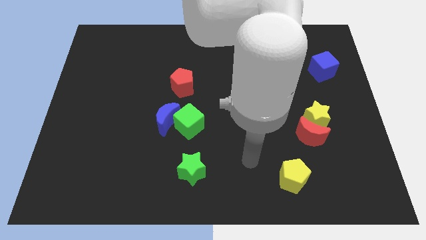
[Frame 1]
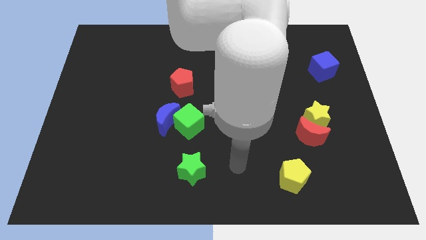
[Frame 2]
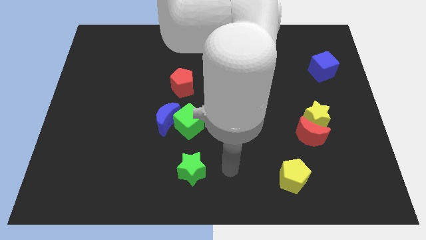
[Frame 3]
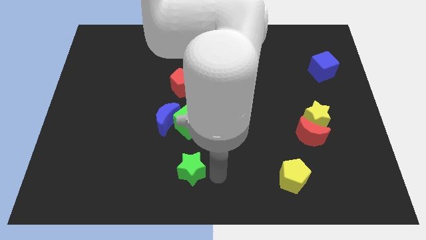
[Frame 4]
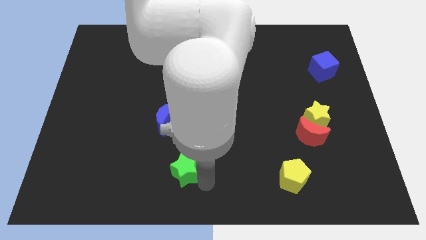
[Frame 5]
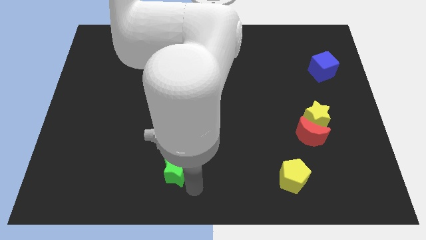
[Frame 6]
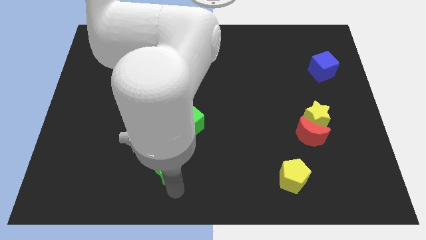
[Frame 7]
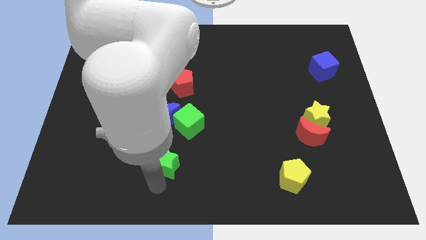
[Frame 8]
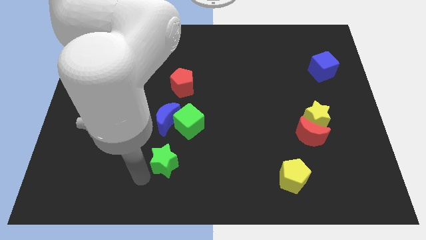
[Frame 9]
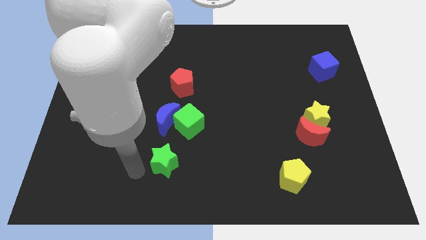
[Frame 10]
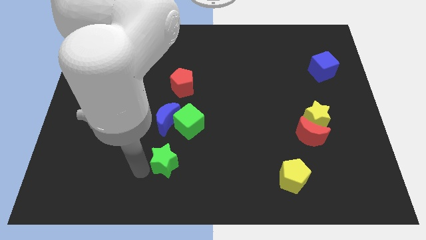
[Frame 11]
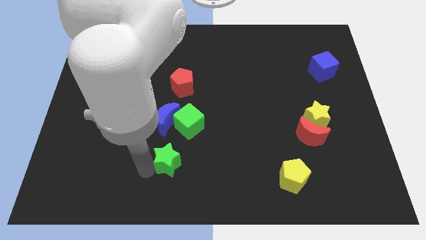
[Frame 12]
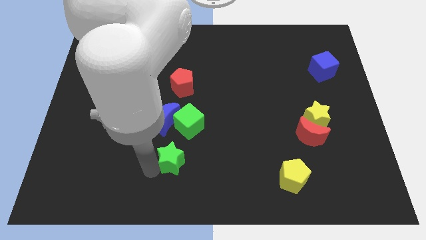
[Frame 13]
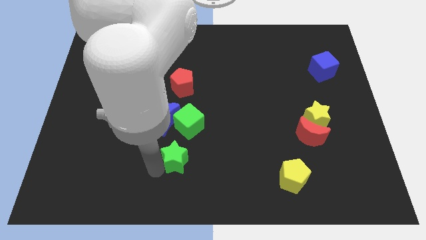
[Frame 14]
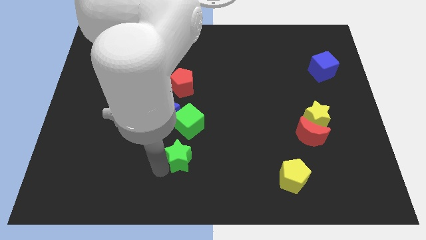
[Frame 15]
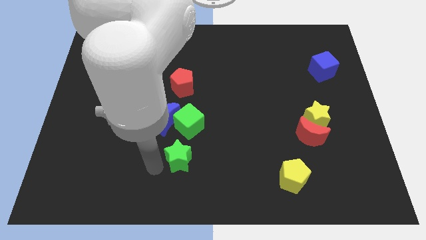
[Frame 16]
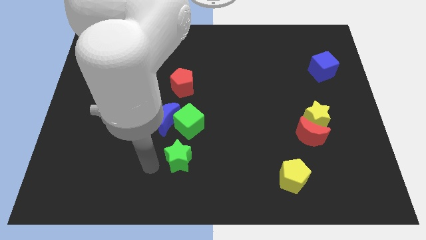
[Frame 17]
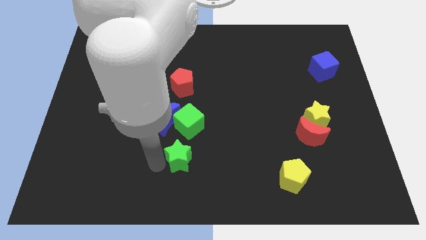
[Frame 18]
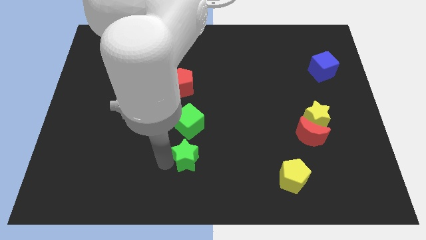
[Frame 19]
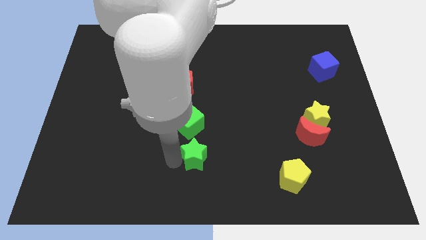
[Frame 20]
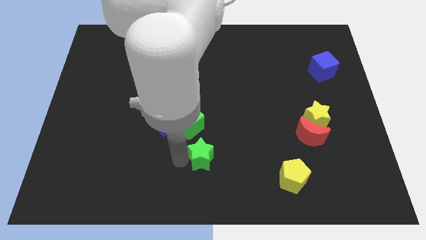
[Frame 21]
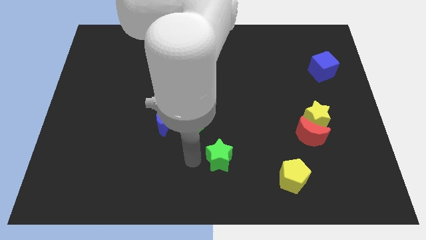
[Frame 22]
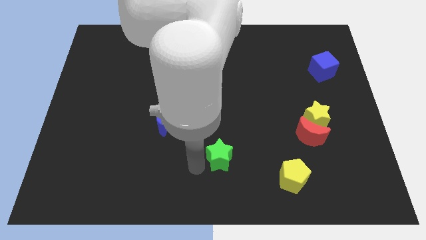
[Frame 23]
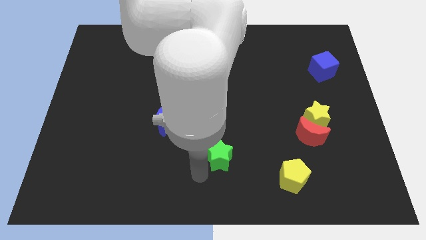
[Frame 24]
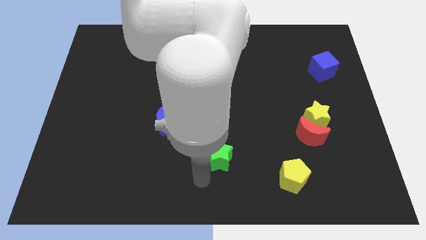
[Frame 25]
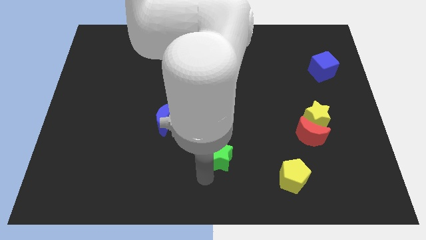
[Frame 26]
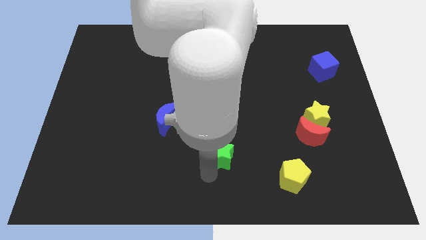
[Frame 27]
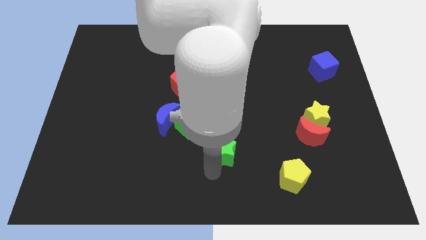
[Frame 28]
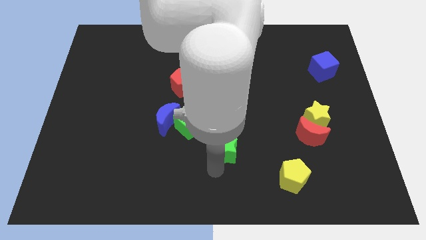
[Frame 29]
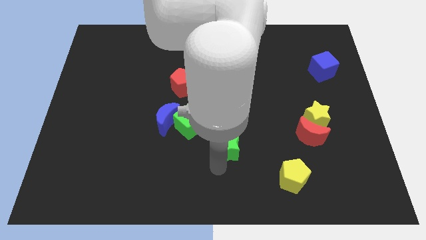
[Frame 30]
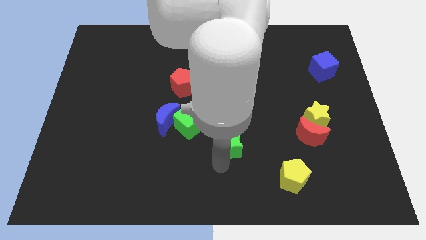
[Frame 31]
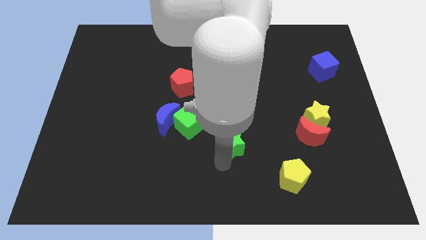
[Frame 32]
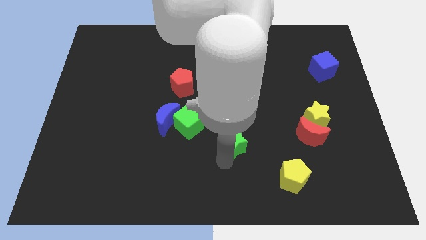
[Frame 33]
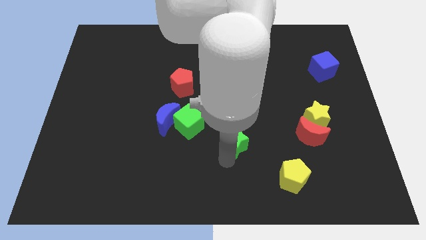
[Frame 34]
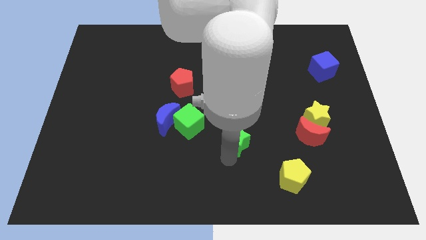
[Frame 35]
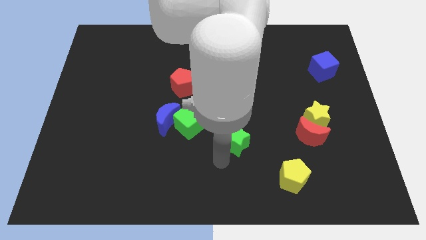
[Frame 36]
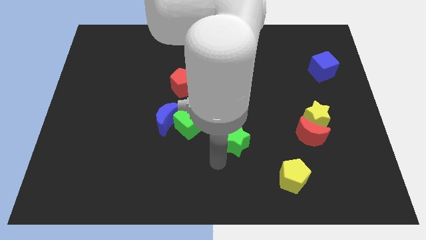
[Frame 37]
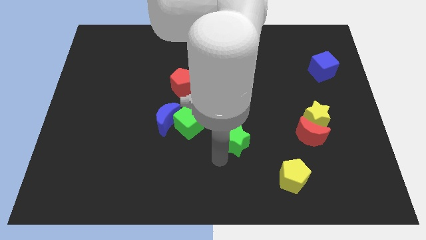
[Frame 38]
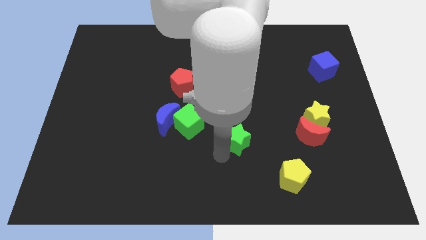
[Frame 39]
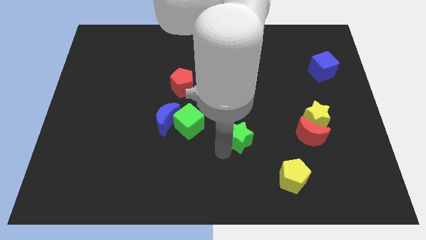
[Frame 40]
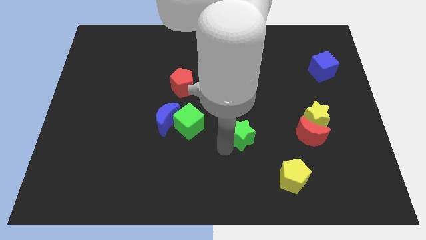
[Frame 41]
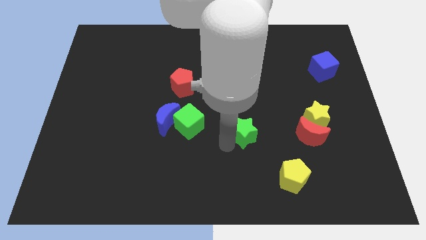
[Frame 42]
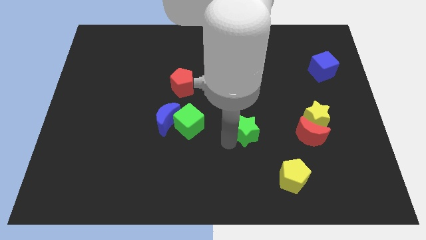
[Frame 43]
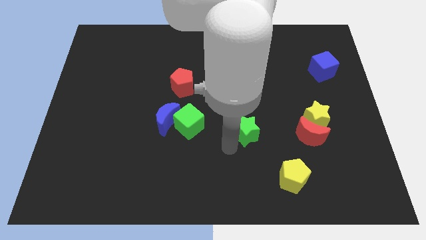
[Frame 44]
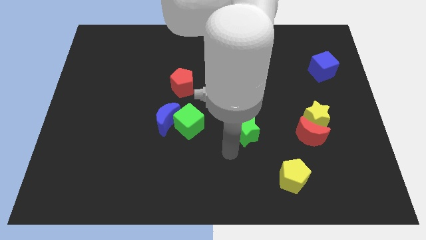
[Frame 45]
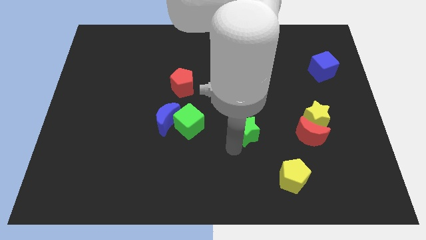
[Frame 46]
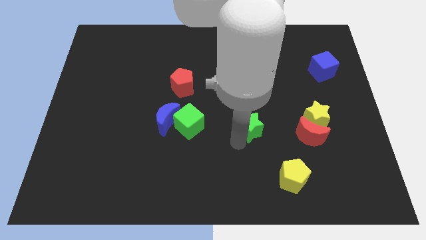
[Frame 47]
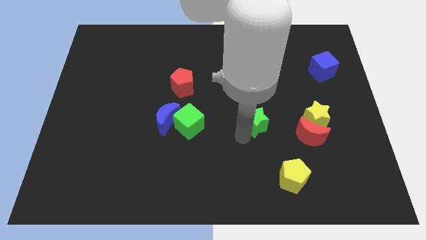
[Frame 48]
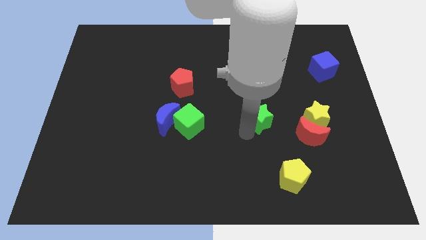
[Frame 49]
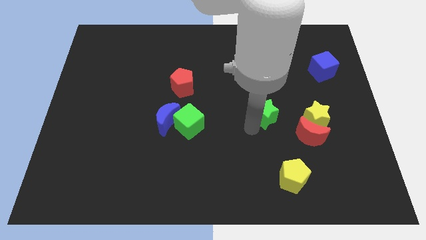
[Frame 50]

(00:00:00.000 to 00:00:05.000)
push the green star diagonally upwards and right

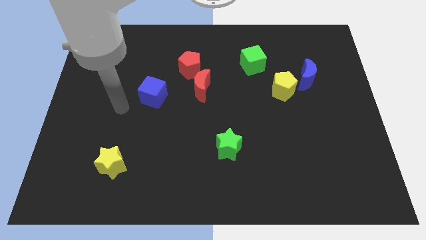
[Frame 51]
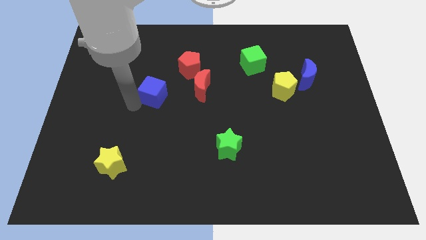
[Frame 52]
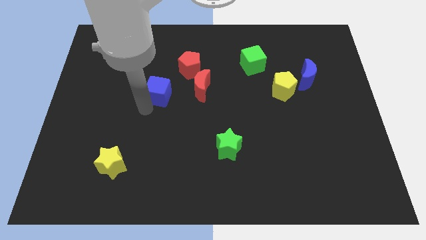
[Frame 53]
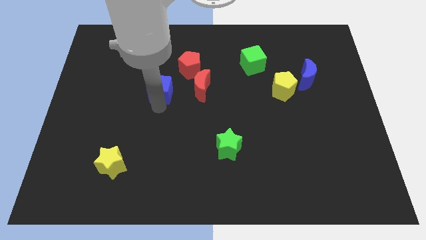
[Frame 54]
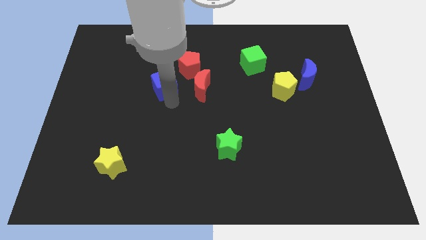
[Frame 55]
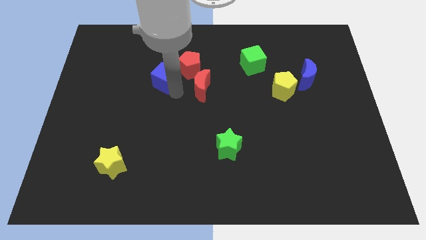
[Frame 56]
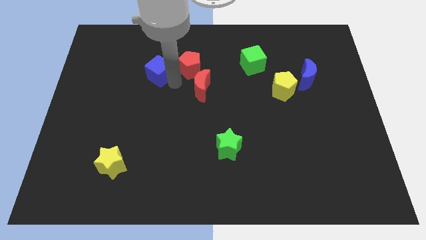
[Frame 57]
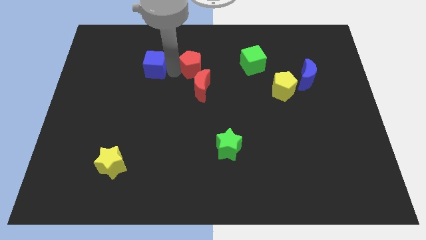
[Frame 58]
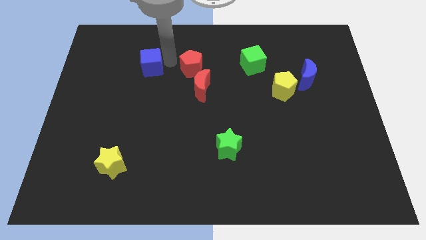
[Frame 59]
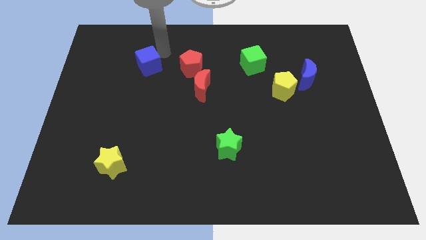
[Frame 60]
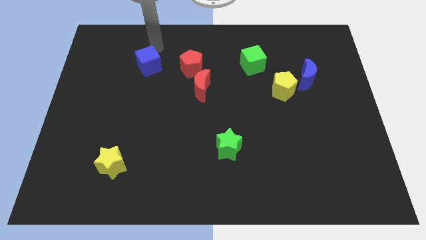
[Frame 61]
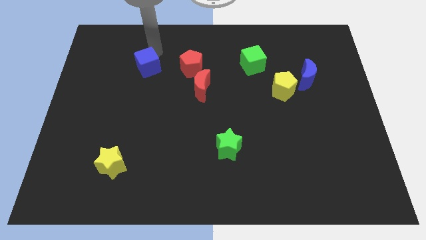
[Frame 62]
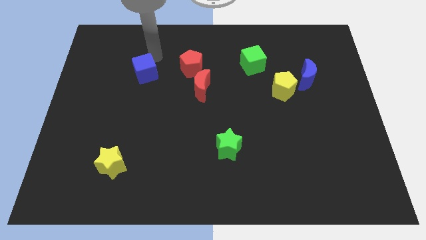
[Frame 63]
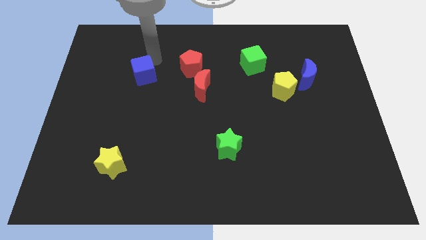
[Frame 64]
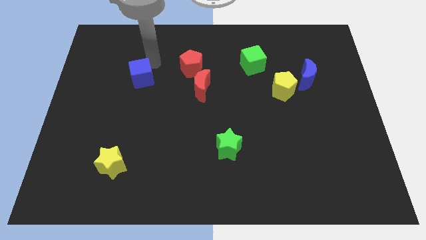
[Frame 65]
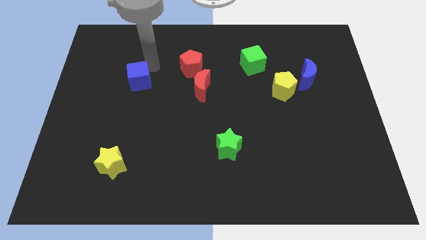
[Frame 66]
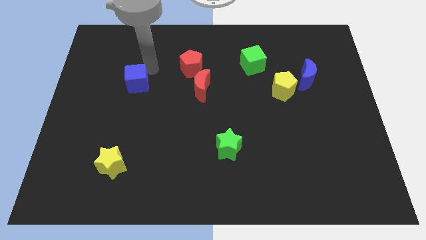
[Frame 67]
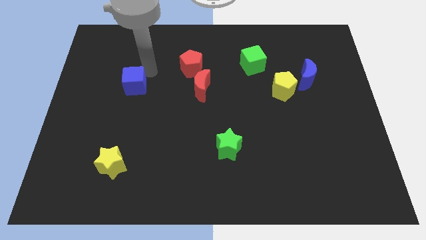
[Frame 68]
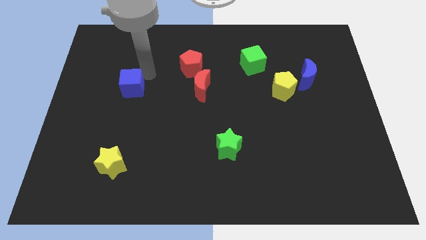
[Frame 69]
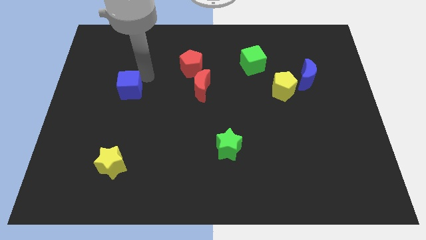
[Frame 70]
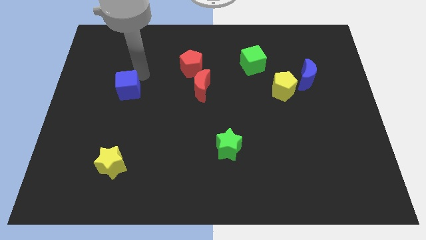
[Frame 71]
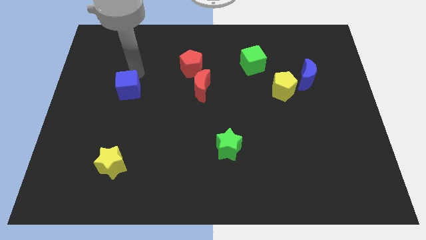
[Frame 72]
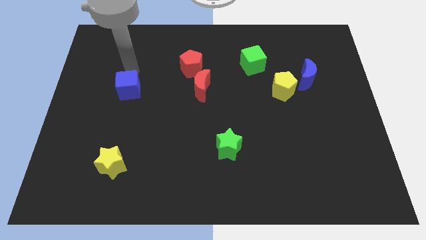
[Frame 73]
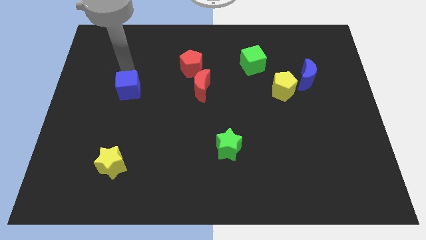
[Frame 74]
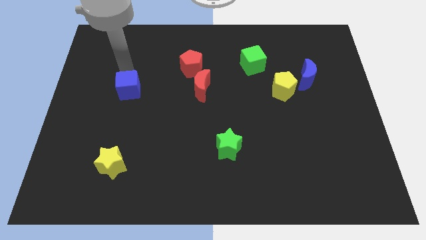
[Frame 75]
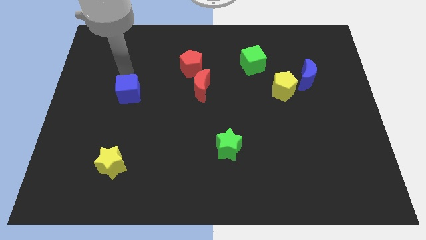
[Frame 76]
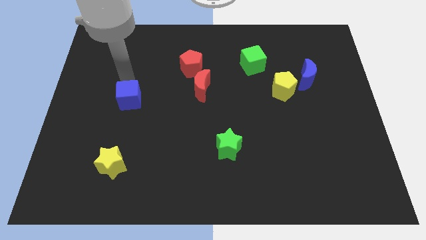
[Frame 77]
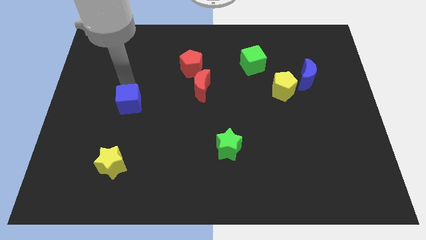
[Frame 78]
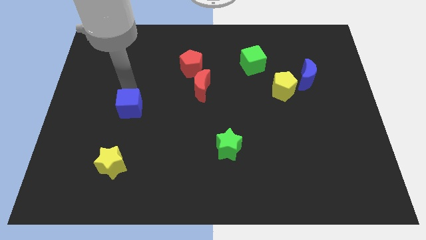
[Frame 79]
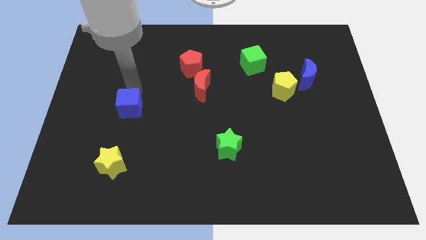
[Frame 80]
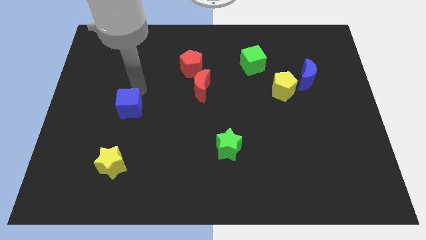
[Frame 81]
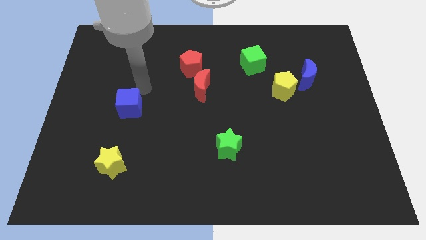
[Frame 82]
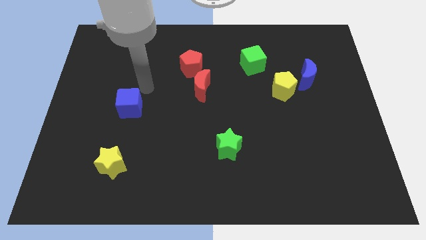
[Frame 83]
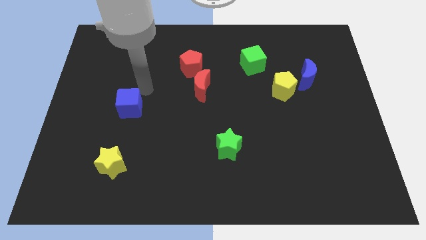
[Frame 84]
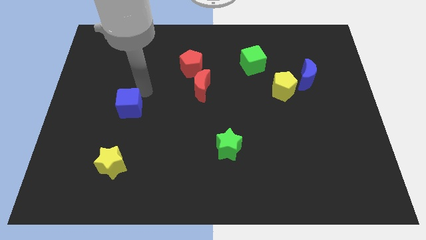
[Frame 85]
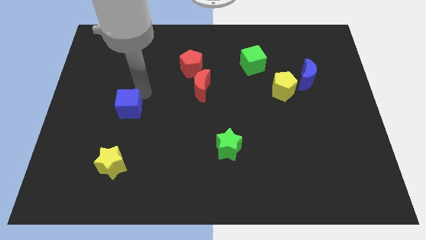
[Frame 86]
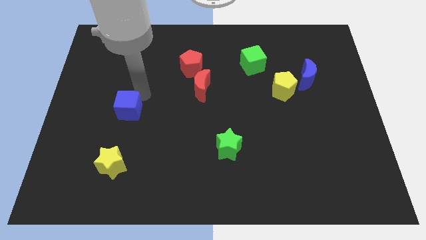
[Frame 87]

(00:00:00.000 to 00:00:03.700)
slightly slide the blue cube down and then left
